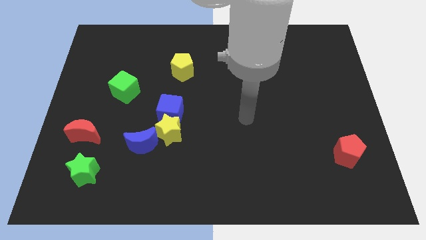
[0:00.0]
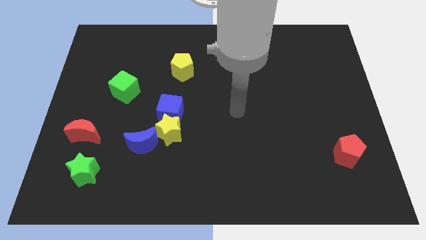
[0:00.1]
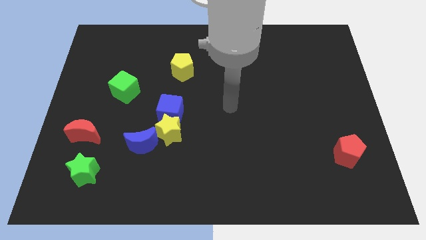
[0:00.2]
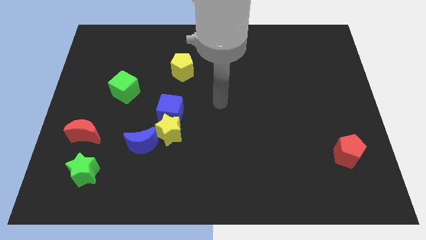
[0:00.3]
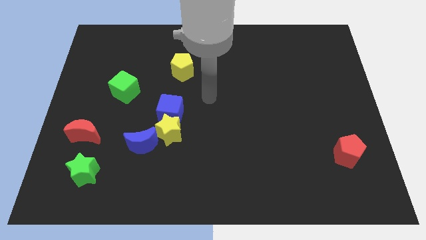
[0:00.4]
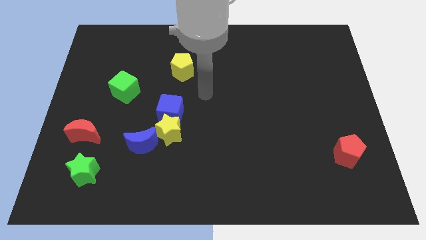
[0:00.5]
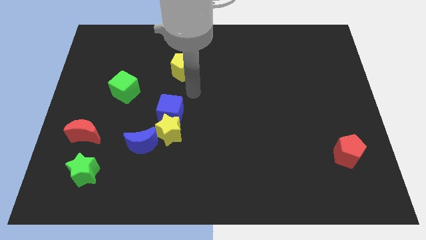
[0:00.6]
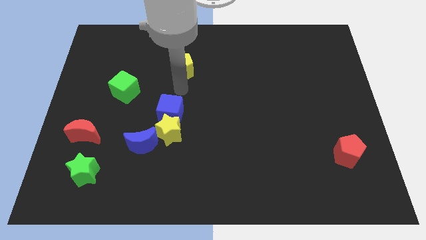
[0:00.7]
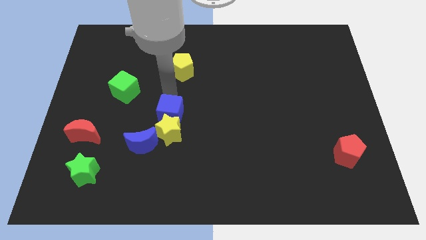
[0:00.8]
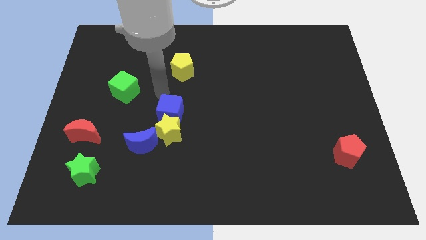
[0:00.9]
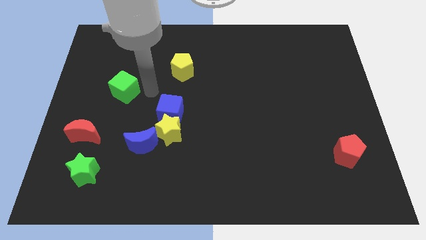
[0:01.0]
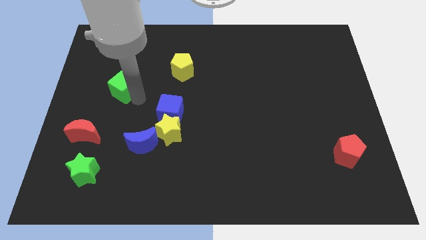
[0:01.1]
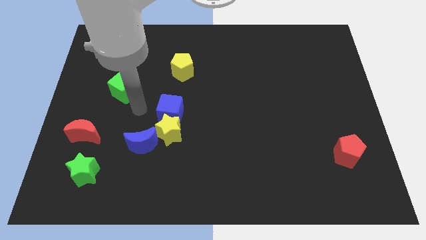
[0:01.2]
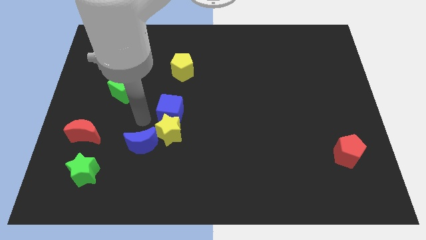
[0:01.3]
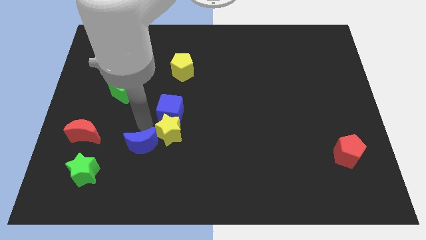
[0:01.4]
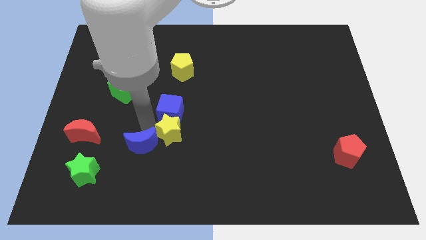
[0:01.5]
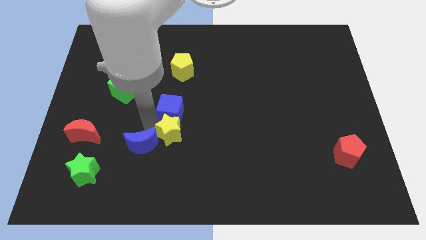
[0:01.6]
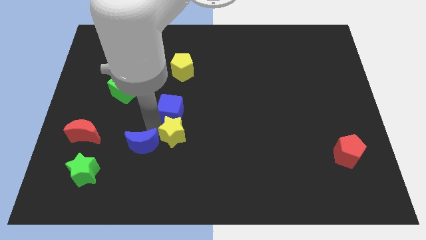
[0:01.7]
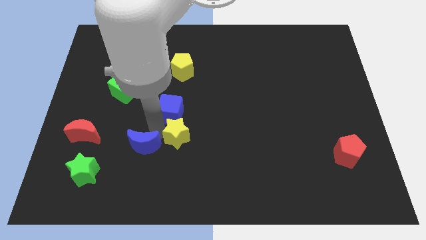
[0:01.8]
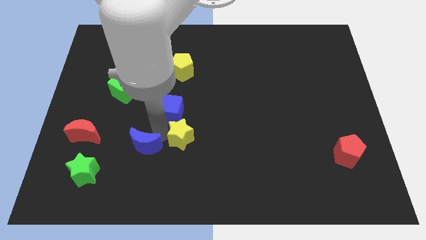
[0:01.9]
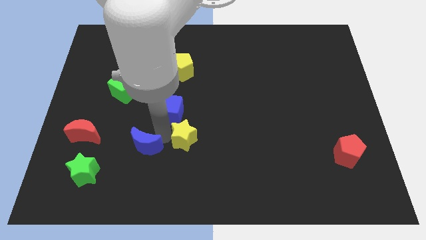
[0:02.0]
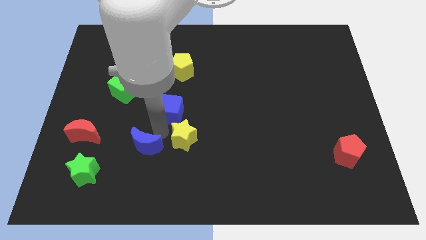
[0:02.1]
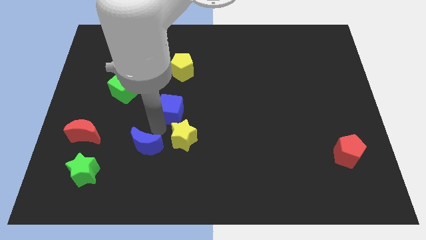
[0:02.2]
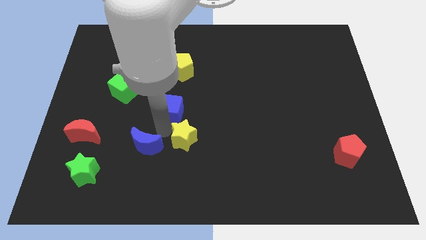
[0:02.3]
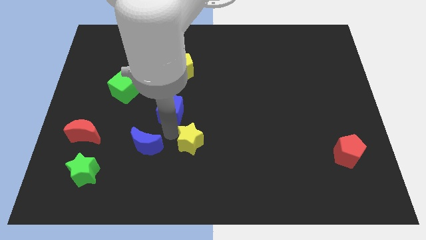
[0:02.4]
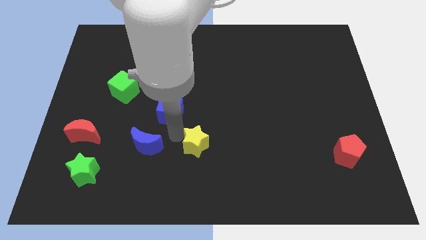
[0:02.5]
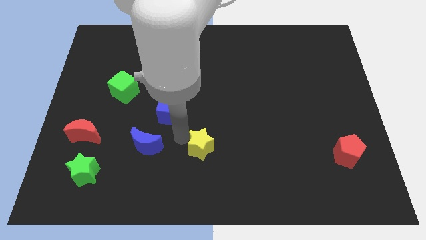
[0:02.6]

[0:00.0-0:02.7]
separate the yellow star from the blue cube and blue moon

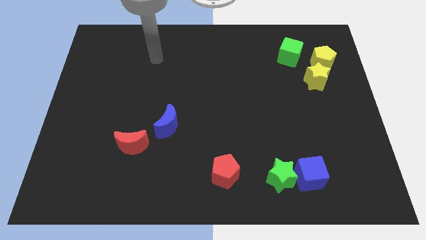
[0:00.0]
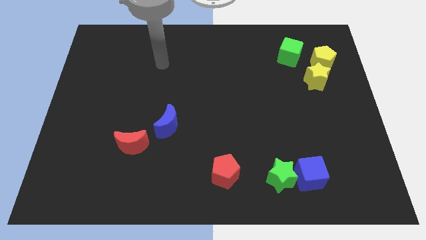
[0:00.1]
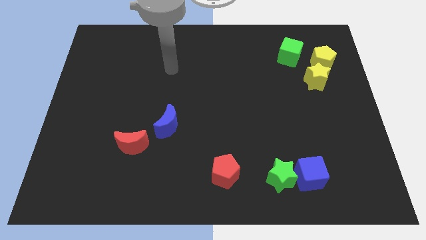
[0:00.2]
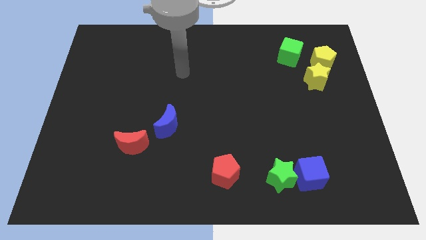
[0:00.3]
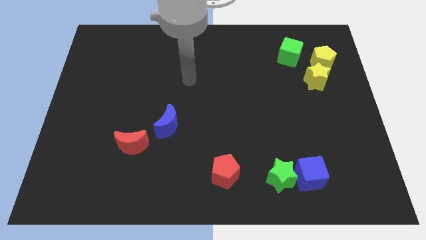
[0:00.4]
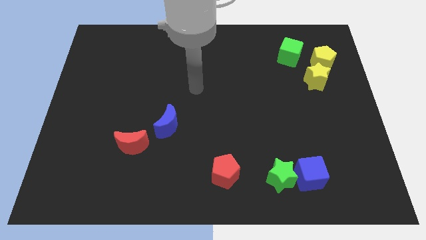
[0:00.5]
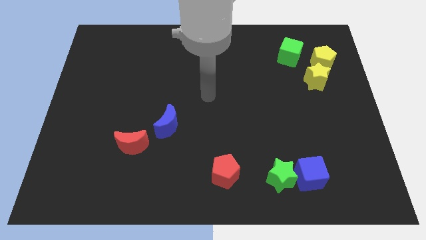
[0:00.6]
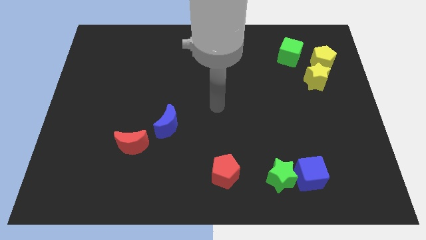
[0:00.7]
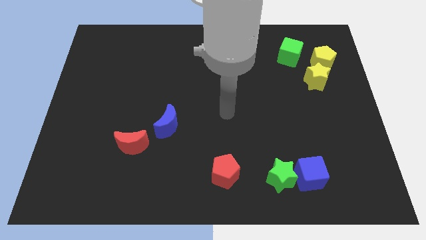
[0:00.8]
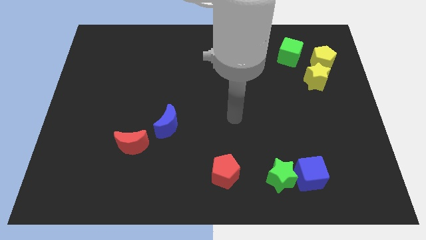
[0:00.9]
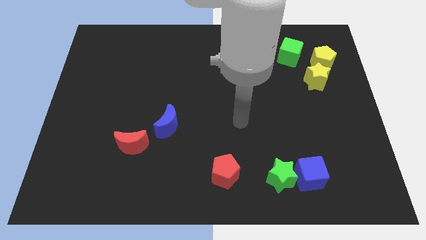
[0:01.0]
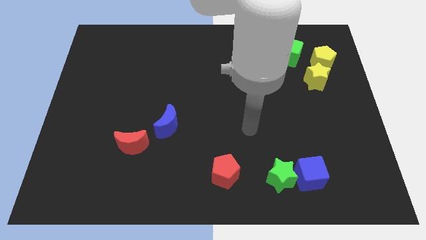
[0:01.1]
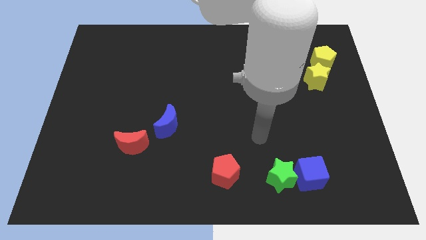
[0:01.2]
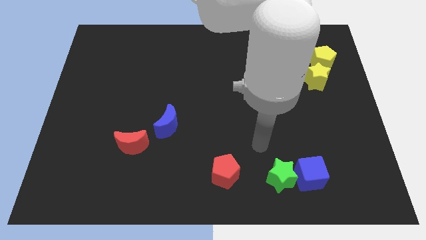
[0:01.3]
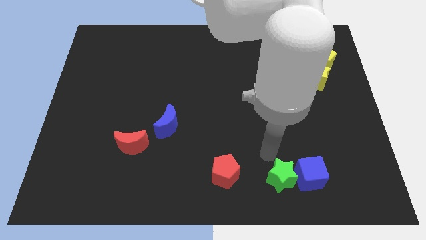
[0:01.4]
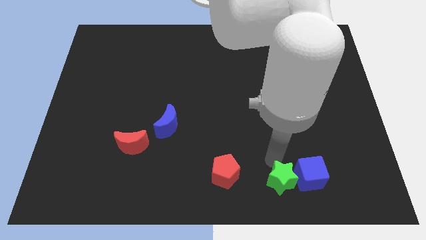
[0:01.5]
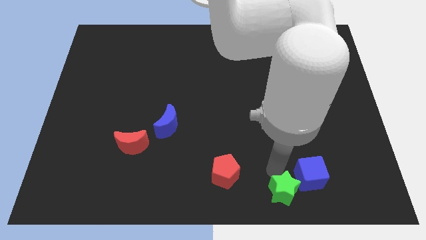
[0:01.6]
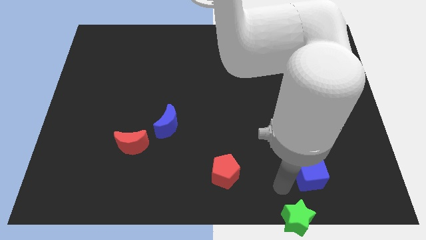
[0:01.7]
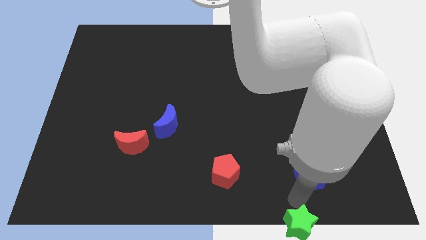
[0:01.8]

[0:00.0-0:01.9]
separate the blue cube from the green star

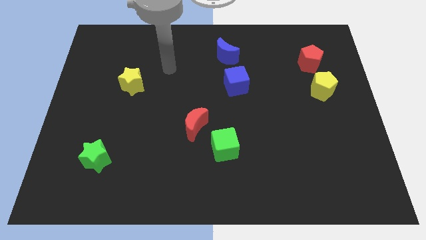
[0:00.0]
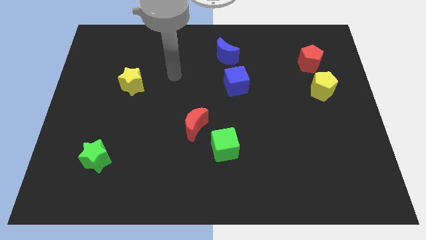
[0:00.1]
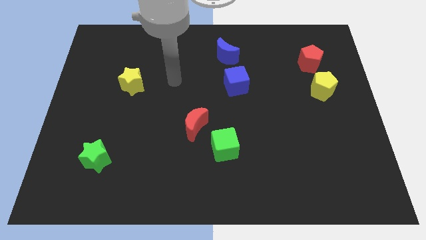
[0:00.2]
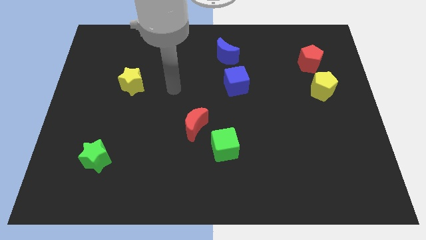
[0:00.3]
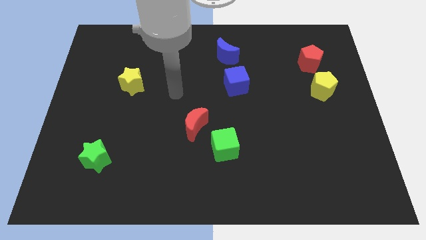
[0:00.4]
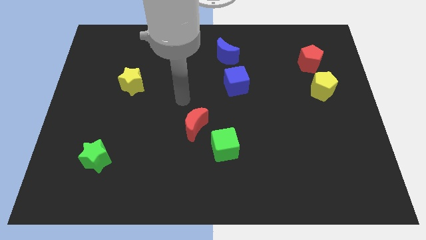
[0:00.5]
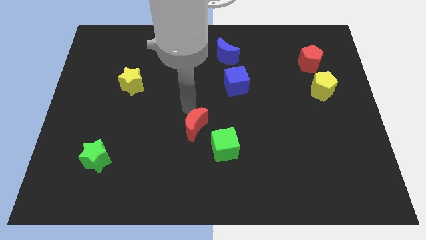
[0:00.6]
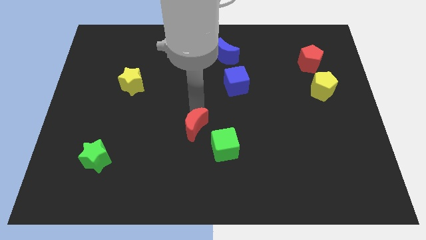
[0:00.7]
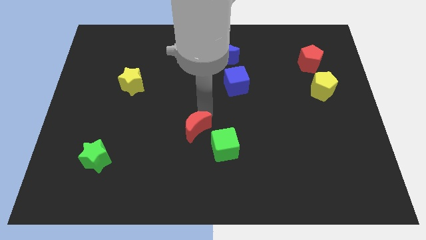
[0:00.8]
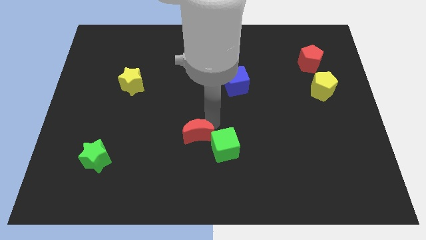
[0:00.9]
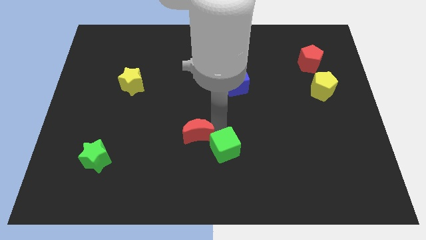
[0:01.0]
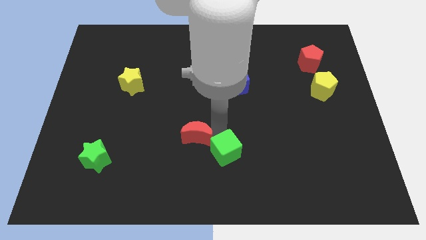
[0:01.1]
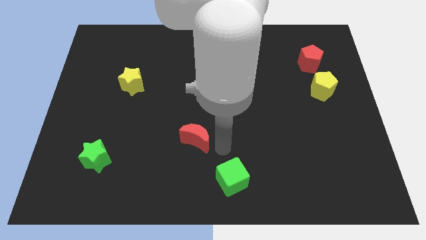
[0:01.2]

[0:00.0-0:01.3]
pull the red moon apart from the green cube

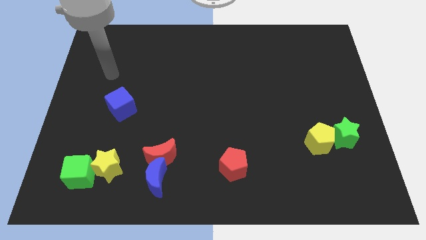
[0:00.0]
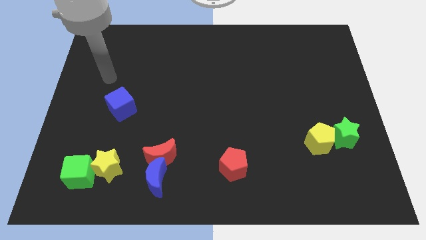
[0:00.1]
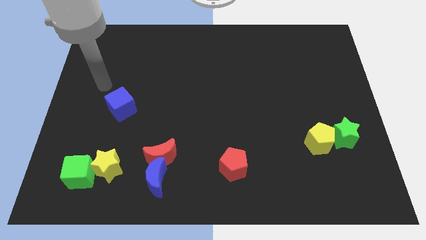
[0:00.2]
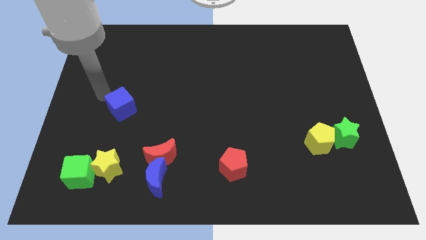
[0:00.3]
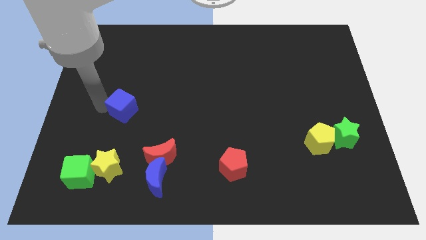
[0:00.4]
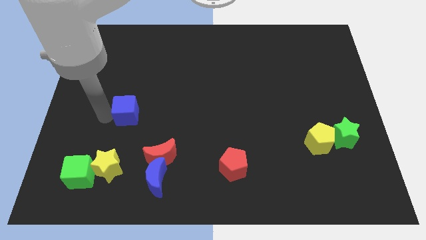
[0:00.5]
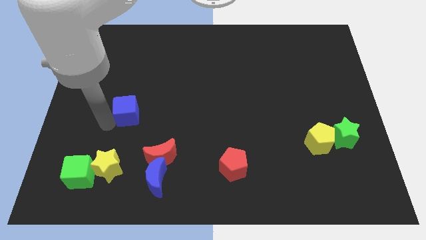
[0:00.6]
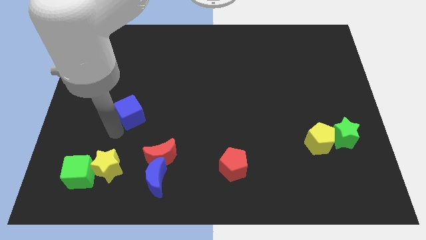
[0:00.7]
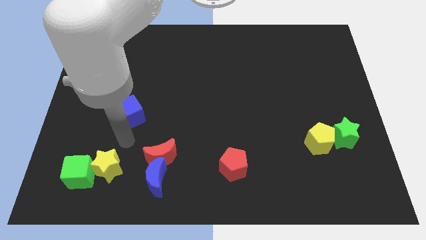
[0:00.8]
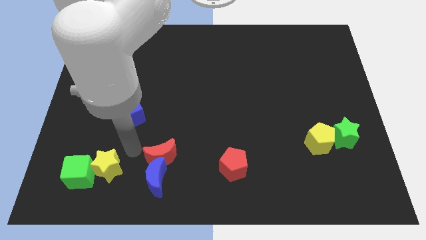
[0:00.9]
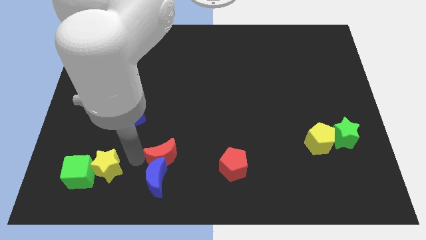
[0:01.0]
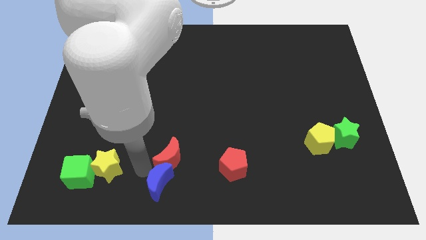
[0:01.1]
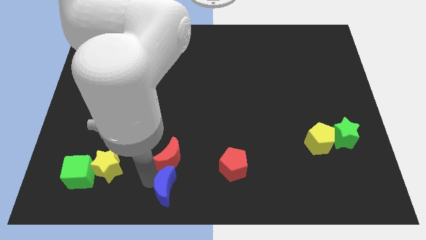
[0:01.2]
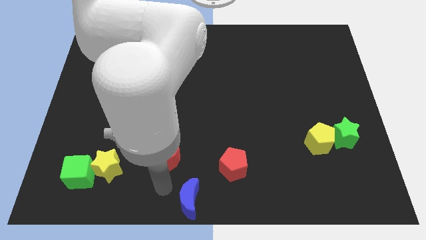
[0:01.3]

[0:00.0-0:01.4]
separate the red moon from the blue moon

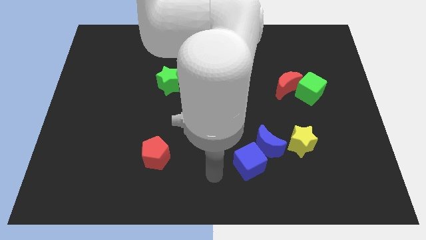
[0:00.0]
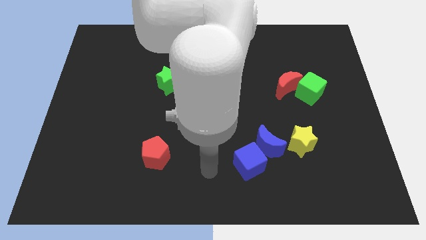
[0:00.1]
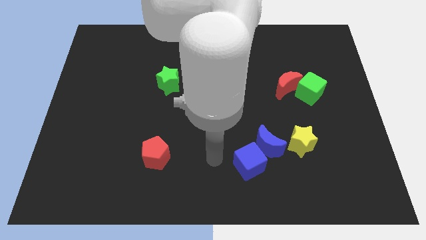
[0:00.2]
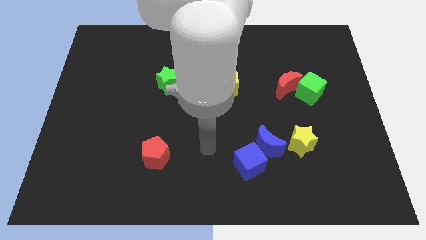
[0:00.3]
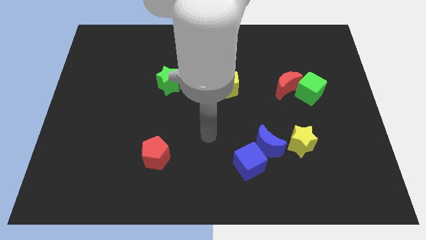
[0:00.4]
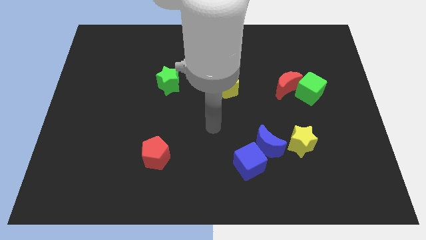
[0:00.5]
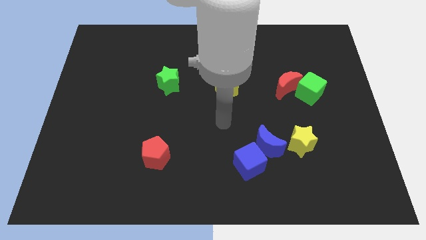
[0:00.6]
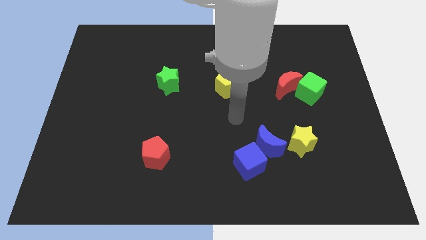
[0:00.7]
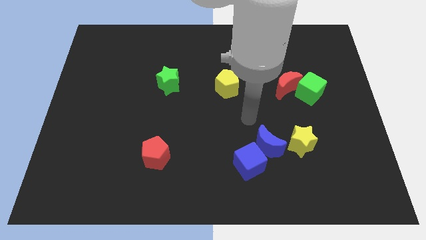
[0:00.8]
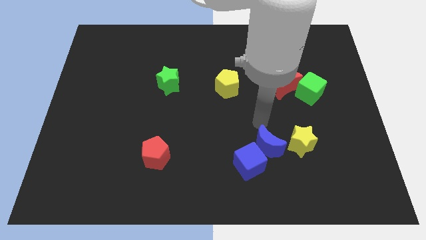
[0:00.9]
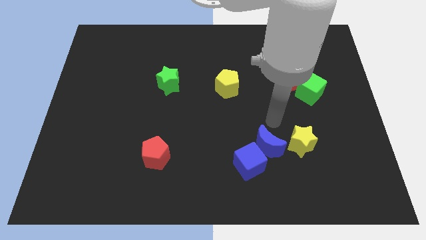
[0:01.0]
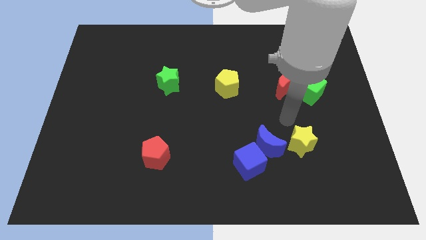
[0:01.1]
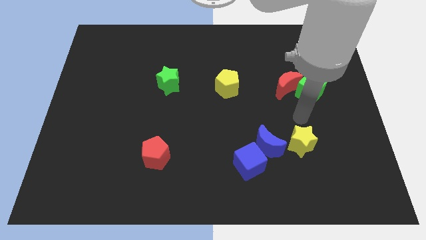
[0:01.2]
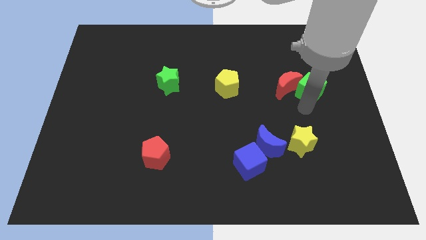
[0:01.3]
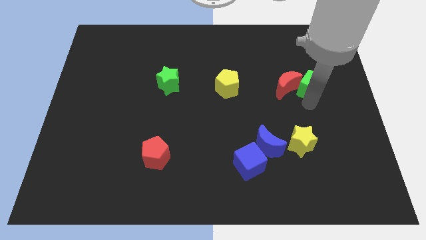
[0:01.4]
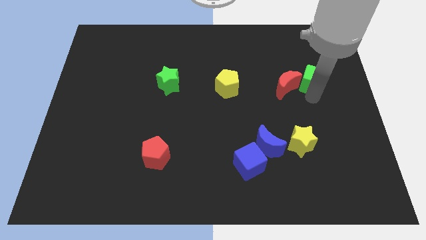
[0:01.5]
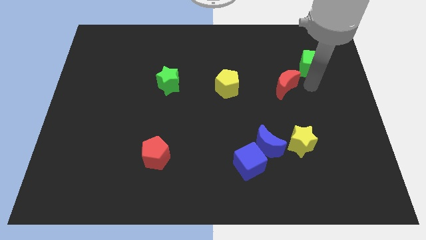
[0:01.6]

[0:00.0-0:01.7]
move the red moon away from the green cube

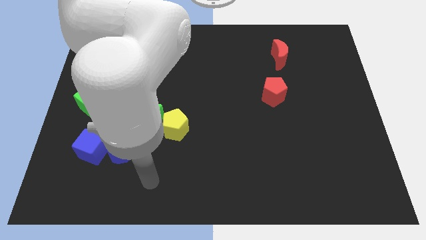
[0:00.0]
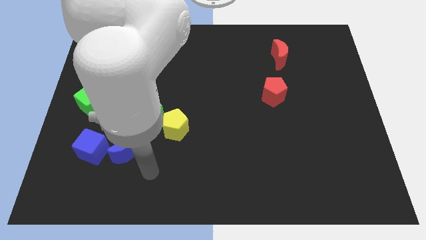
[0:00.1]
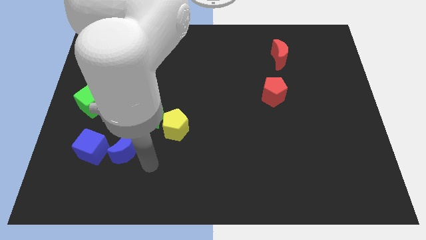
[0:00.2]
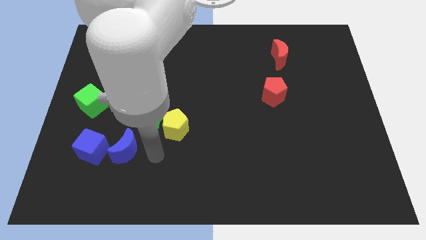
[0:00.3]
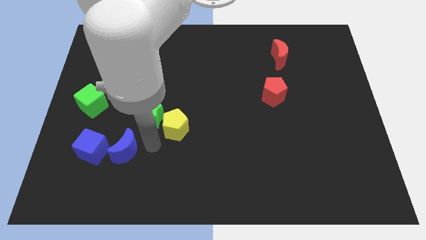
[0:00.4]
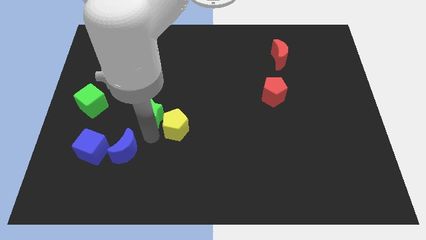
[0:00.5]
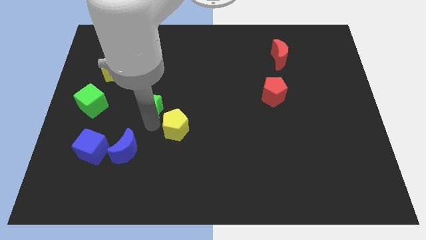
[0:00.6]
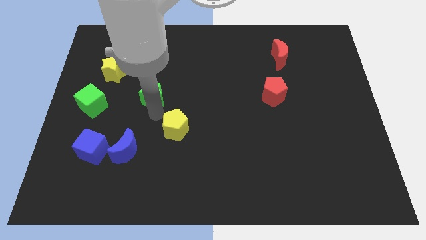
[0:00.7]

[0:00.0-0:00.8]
separate the yellow pentagon from the green star